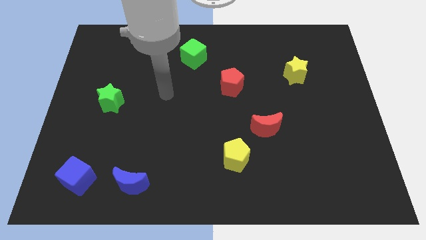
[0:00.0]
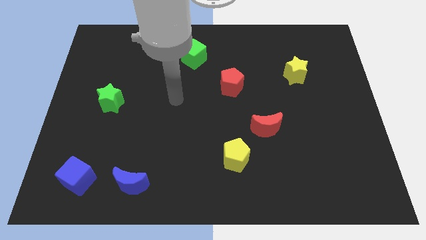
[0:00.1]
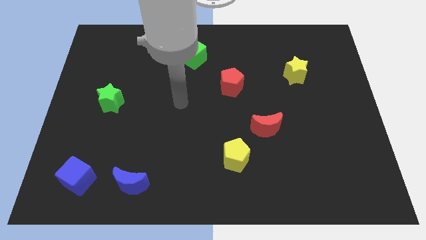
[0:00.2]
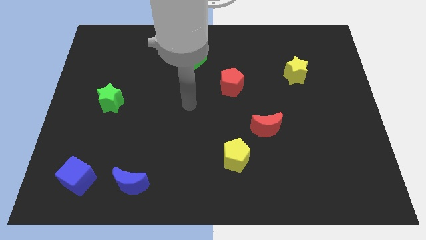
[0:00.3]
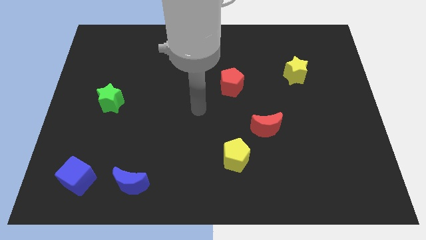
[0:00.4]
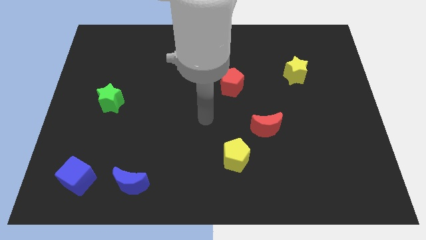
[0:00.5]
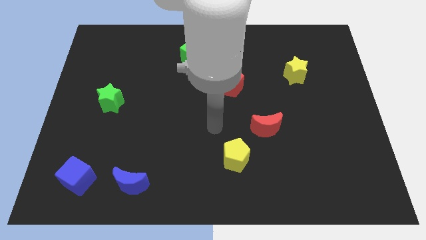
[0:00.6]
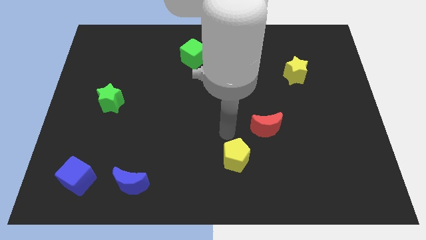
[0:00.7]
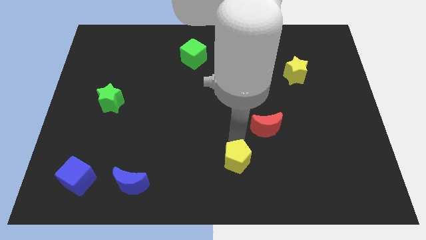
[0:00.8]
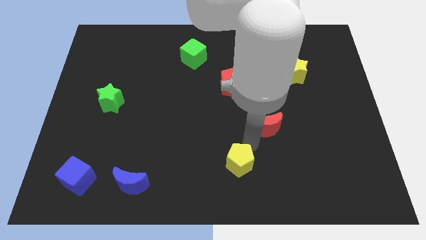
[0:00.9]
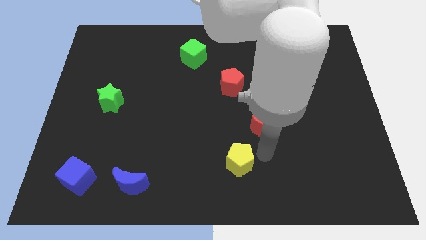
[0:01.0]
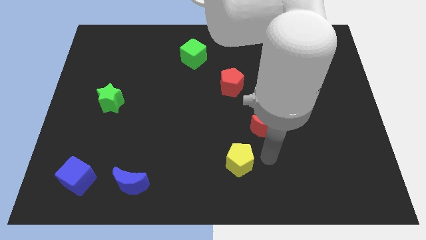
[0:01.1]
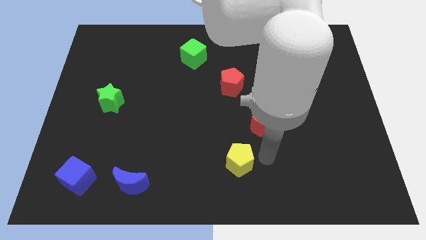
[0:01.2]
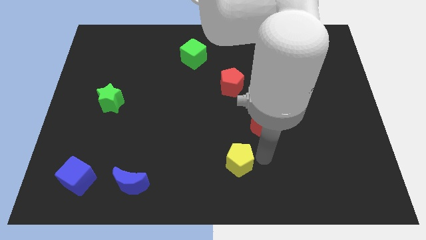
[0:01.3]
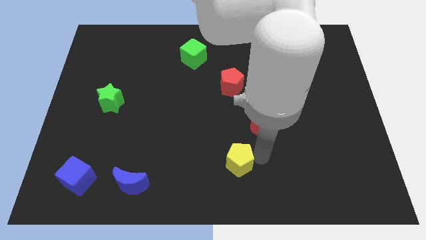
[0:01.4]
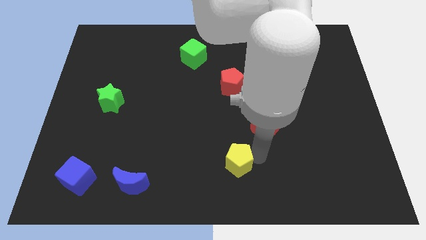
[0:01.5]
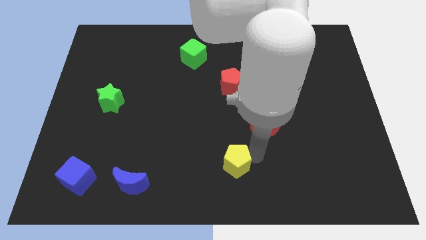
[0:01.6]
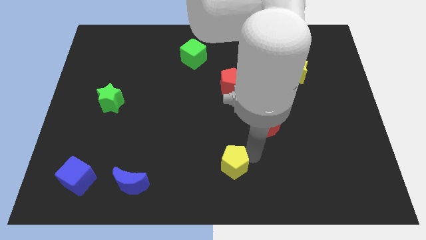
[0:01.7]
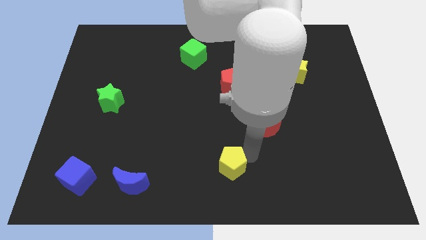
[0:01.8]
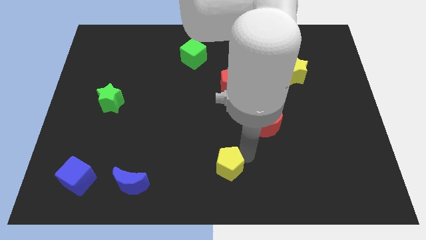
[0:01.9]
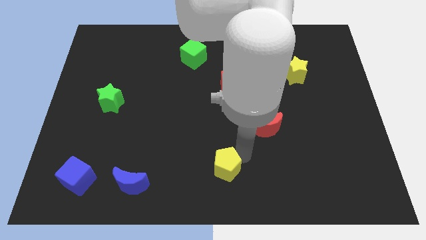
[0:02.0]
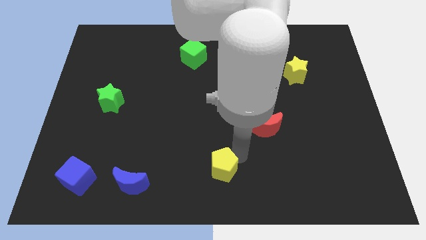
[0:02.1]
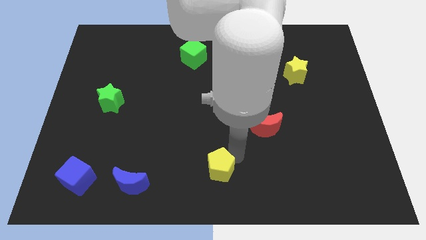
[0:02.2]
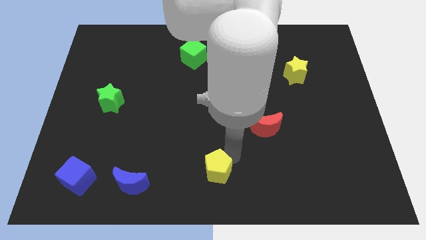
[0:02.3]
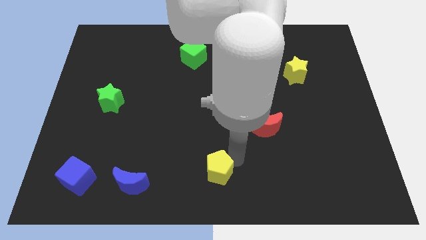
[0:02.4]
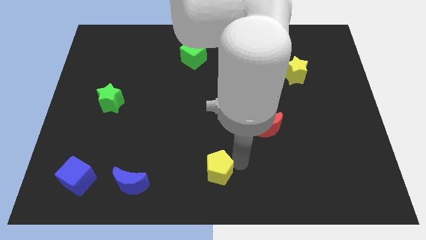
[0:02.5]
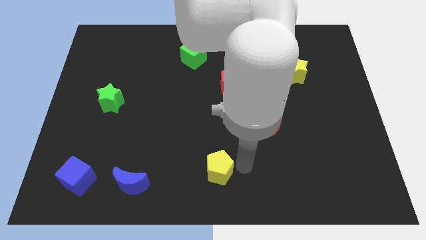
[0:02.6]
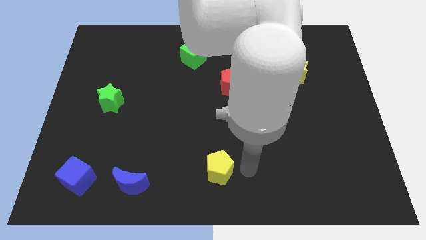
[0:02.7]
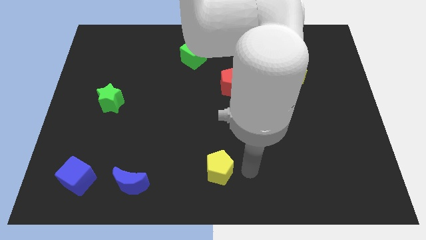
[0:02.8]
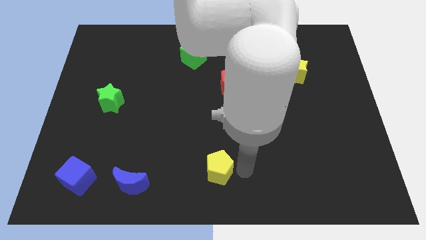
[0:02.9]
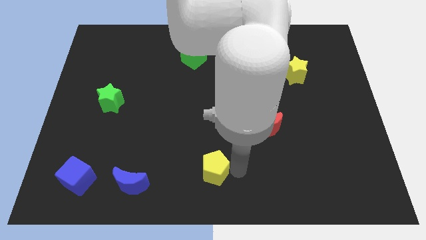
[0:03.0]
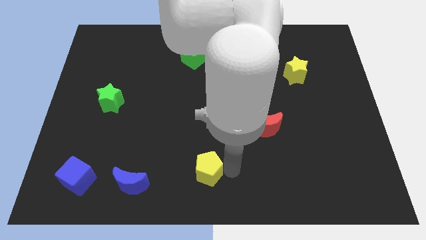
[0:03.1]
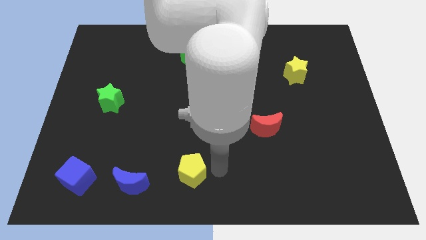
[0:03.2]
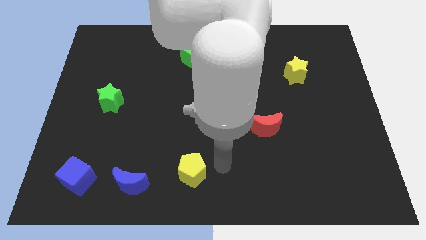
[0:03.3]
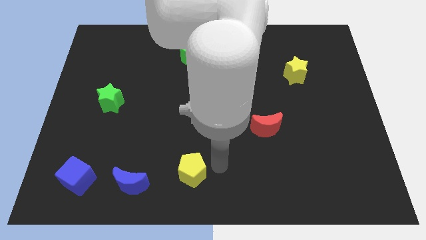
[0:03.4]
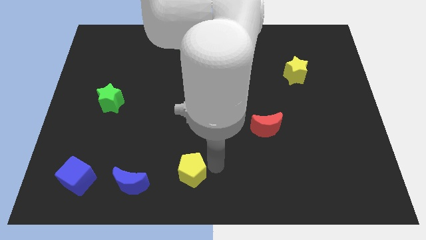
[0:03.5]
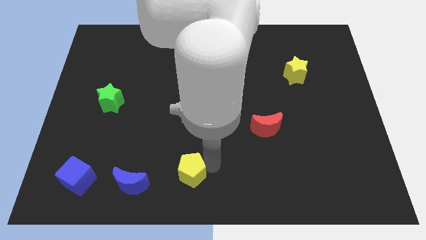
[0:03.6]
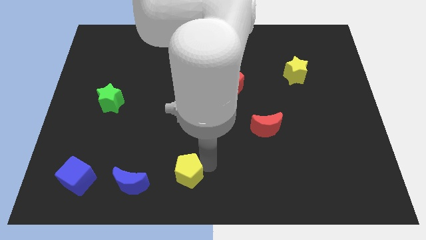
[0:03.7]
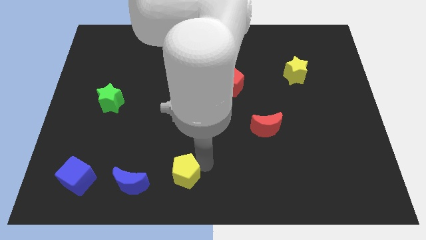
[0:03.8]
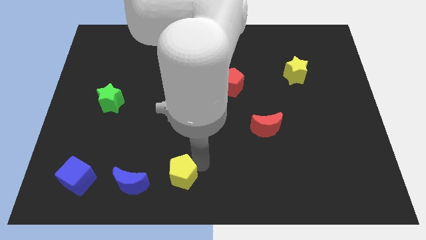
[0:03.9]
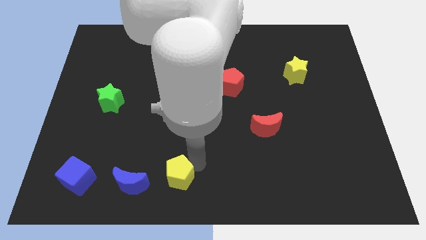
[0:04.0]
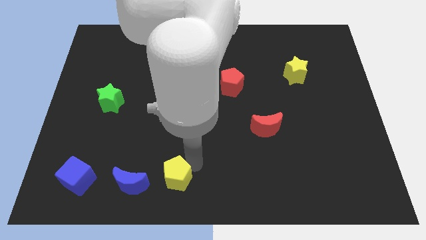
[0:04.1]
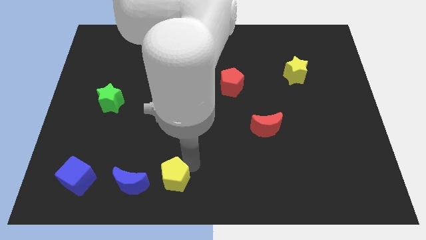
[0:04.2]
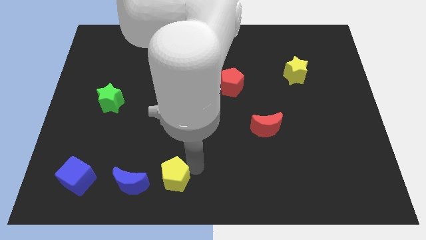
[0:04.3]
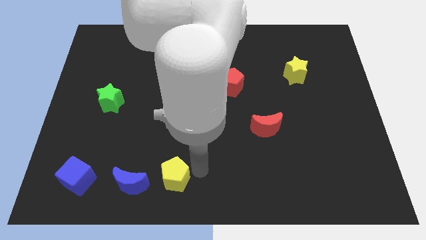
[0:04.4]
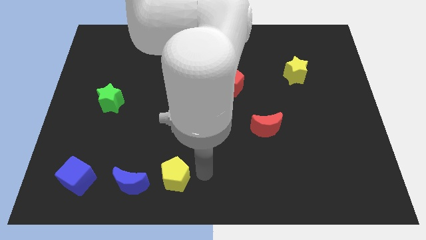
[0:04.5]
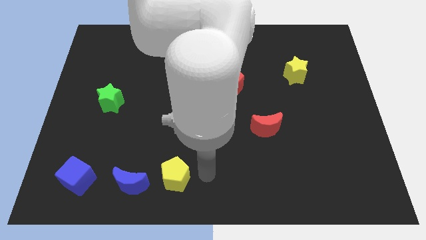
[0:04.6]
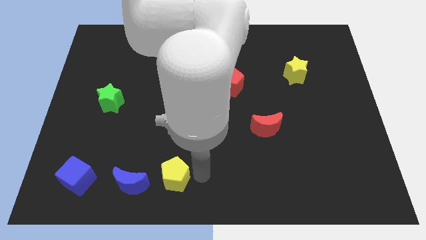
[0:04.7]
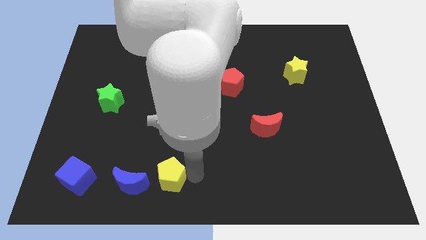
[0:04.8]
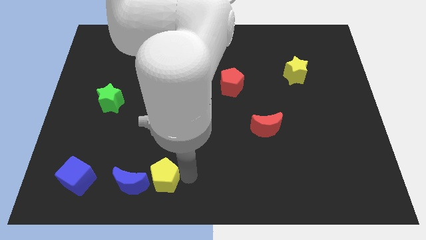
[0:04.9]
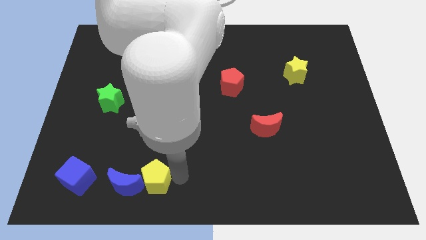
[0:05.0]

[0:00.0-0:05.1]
put the yellow pentagon to the right side of the blue cube

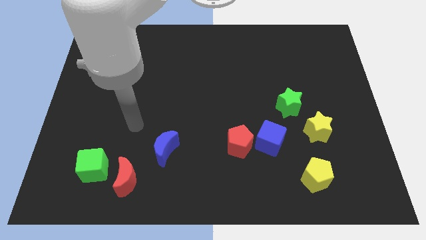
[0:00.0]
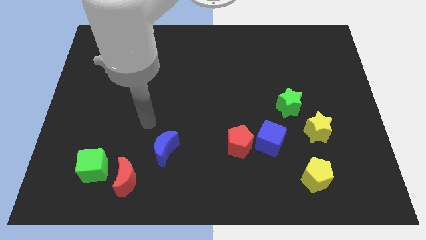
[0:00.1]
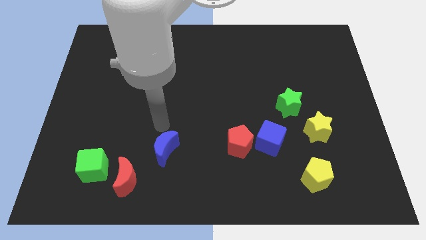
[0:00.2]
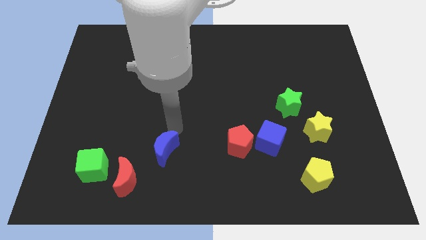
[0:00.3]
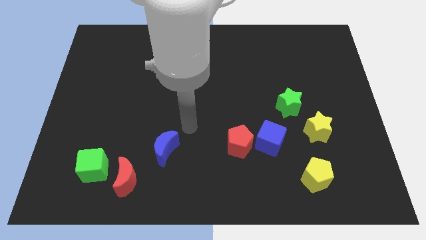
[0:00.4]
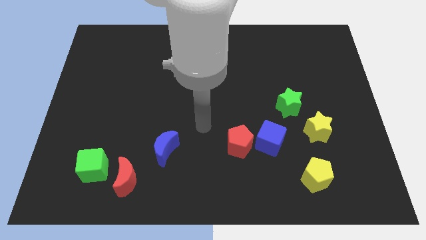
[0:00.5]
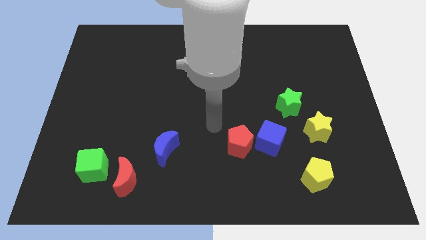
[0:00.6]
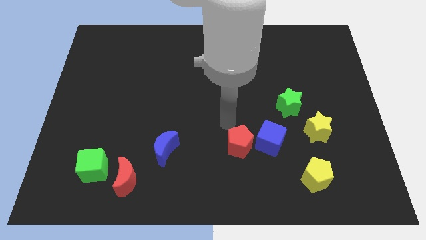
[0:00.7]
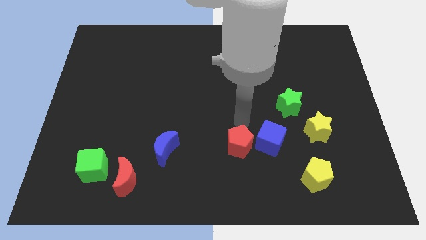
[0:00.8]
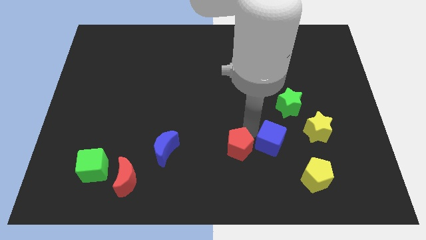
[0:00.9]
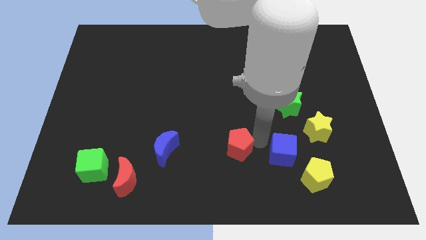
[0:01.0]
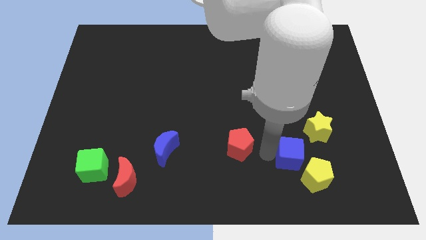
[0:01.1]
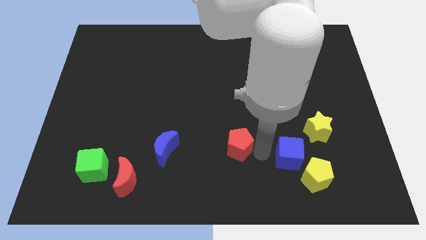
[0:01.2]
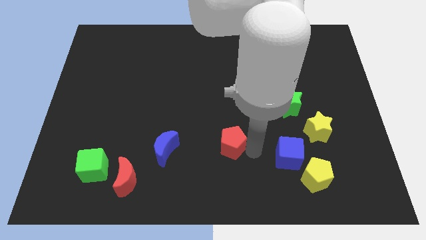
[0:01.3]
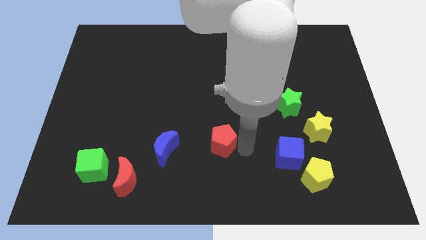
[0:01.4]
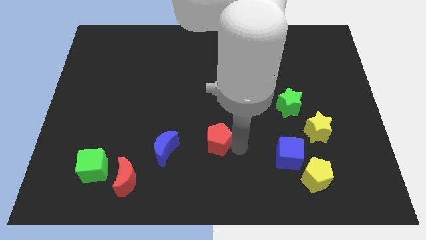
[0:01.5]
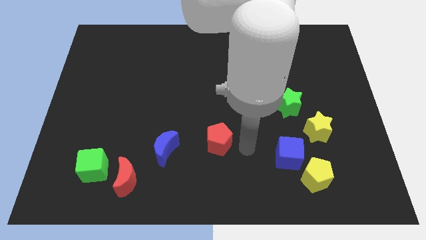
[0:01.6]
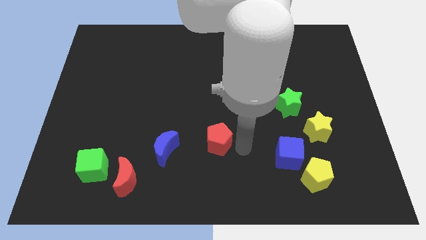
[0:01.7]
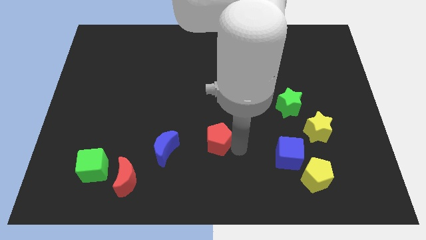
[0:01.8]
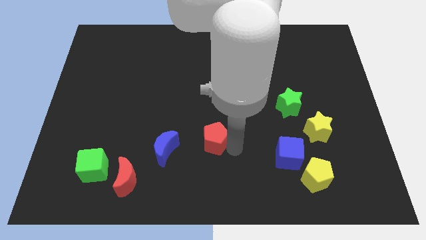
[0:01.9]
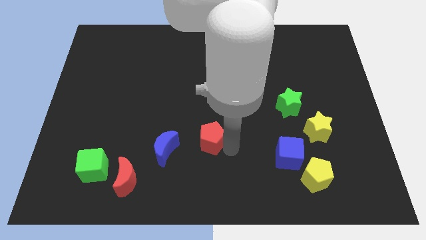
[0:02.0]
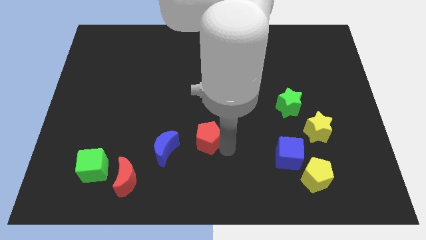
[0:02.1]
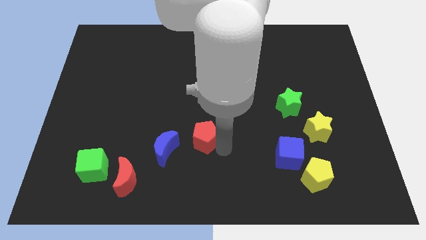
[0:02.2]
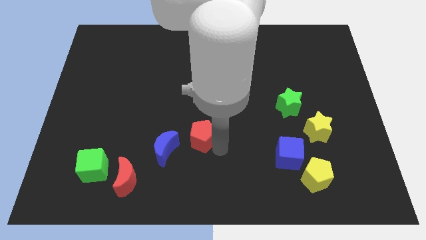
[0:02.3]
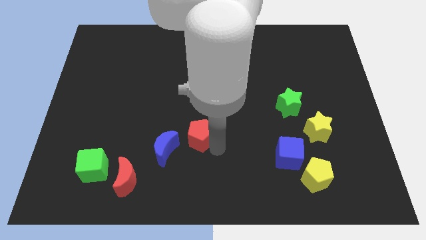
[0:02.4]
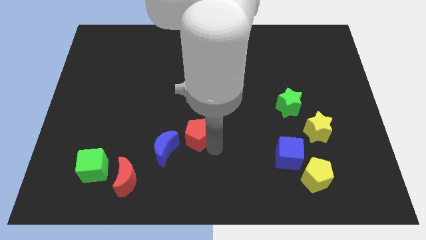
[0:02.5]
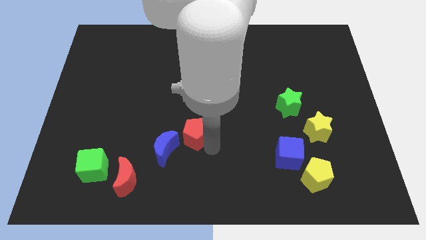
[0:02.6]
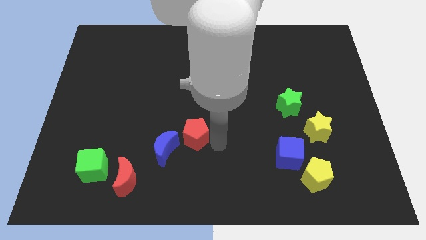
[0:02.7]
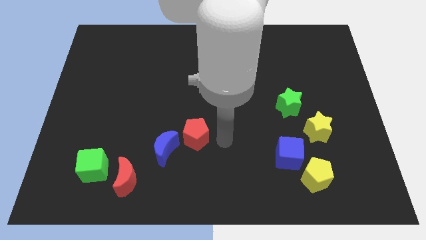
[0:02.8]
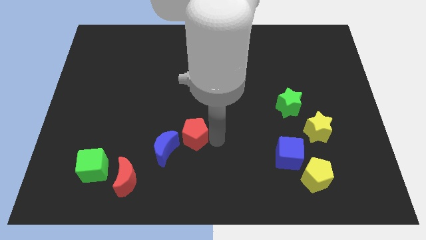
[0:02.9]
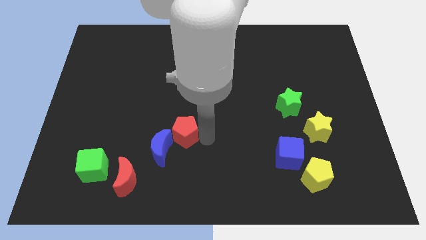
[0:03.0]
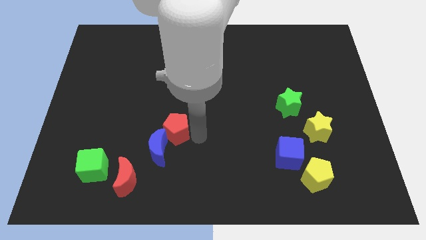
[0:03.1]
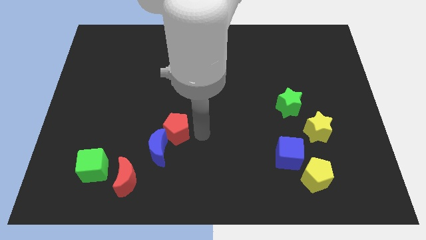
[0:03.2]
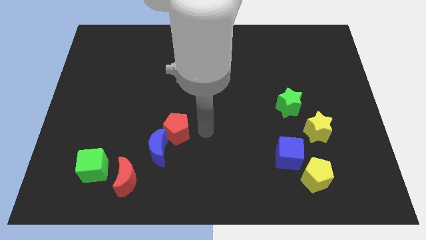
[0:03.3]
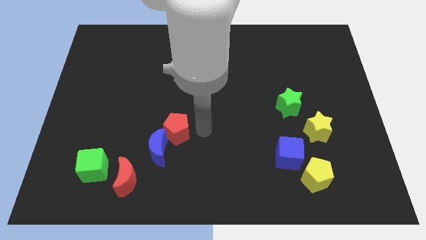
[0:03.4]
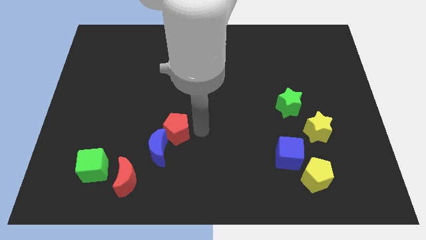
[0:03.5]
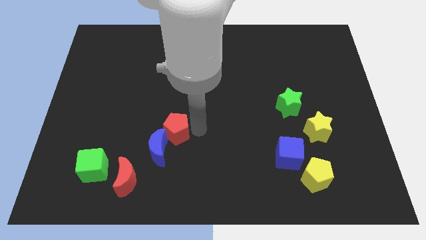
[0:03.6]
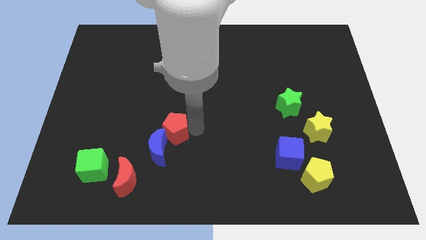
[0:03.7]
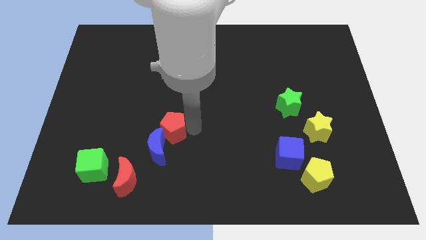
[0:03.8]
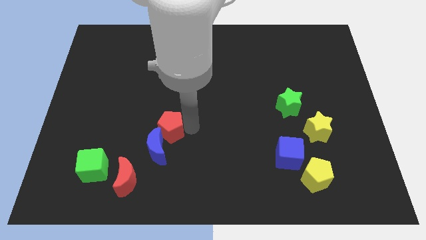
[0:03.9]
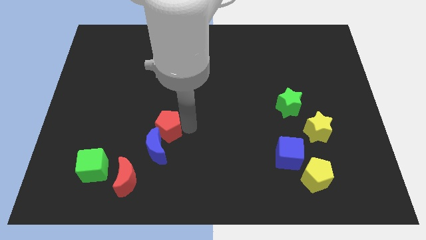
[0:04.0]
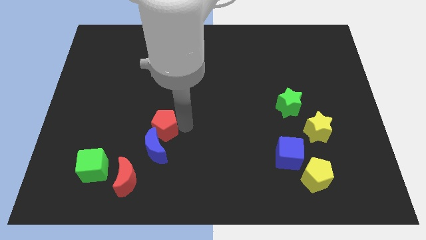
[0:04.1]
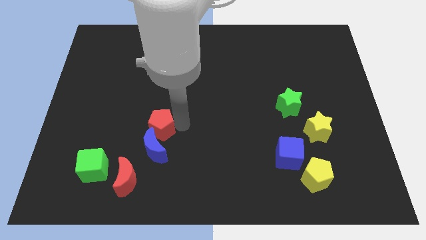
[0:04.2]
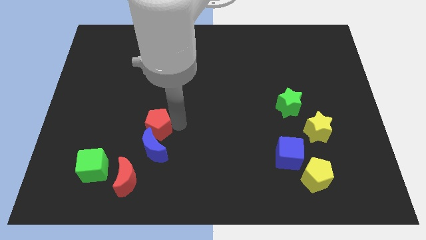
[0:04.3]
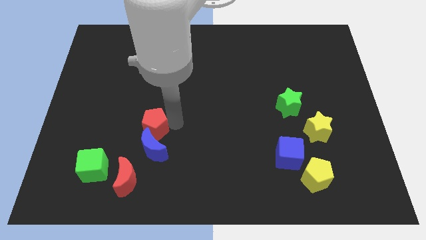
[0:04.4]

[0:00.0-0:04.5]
slide the red pentagon above the red moon
